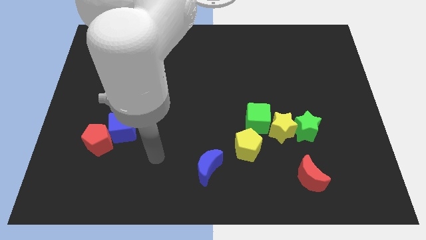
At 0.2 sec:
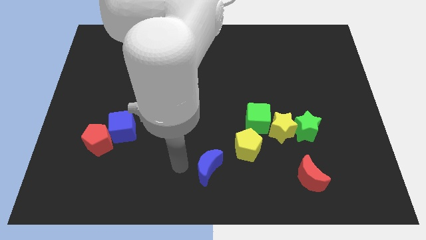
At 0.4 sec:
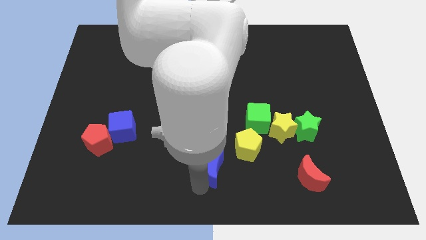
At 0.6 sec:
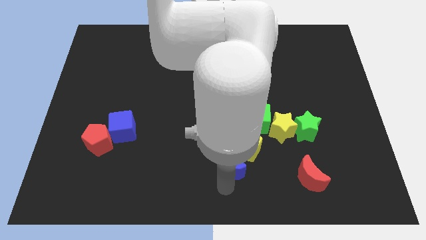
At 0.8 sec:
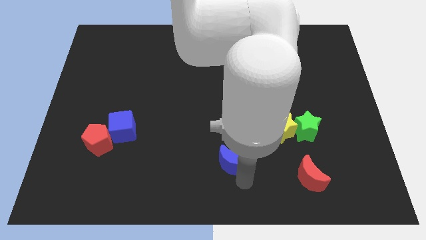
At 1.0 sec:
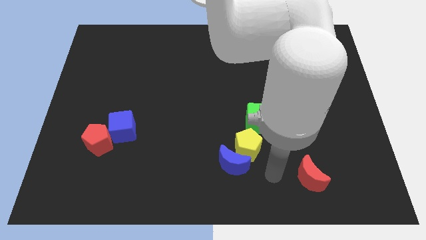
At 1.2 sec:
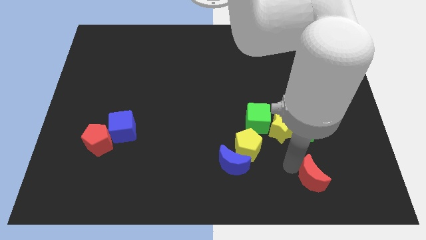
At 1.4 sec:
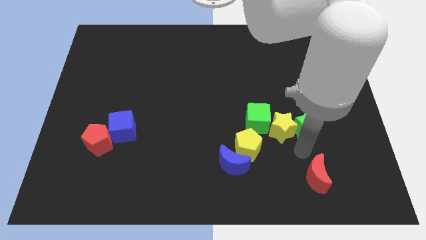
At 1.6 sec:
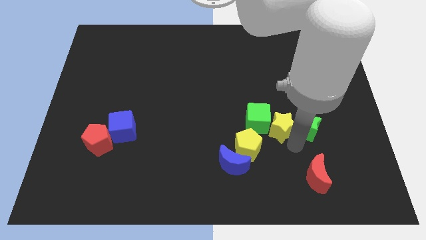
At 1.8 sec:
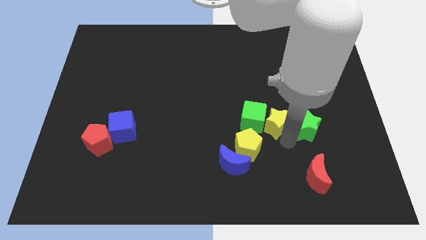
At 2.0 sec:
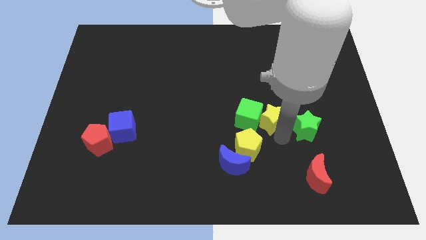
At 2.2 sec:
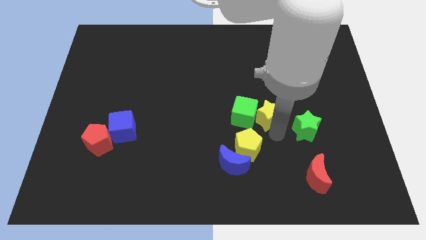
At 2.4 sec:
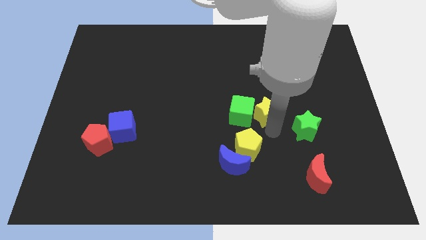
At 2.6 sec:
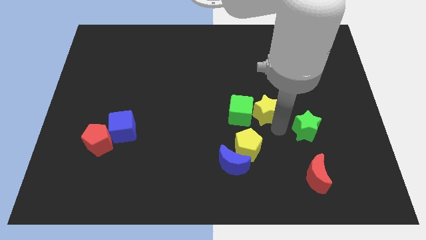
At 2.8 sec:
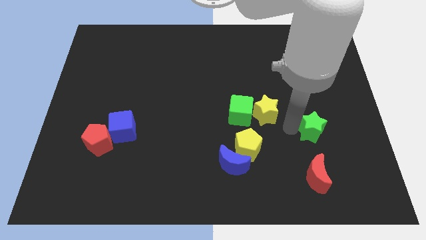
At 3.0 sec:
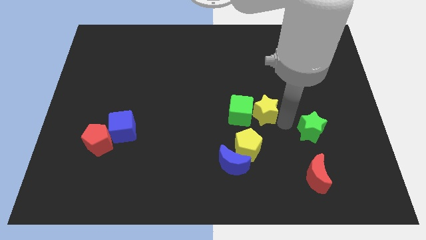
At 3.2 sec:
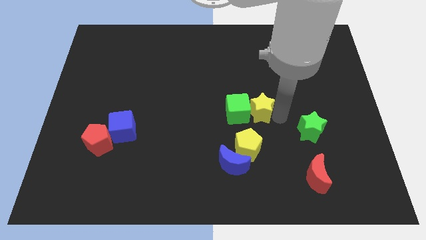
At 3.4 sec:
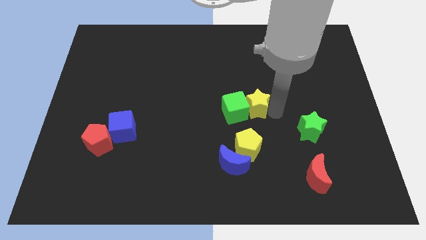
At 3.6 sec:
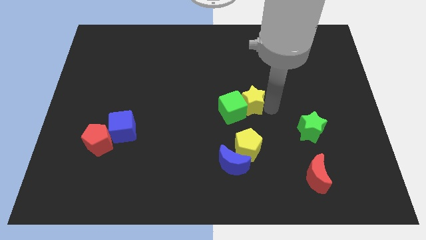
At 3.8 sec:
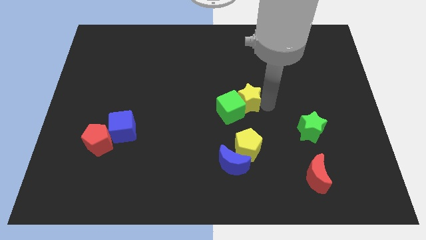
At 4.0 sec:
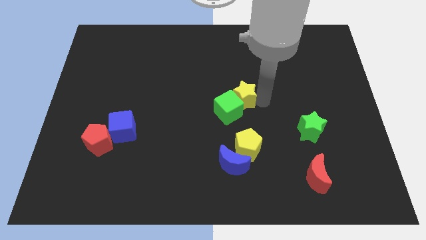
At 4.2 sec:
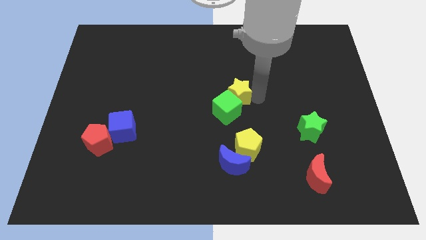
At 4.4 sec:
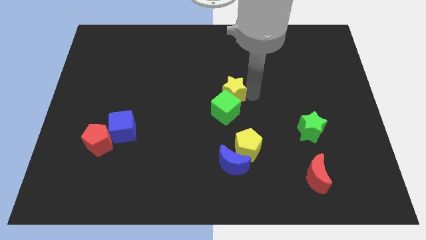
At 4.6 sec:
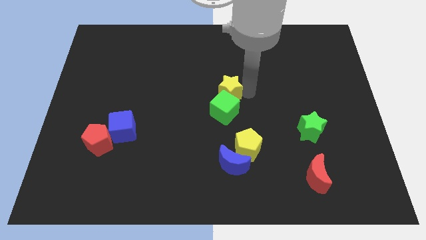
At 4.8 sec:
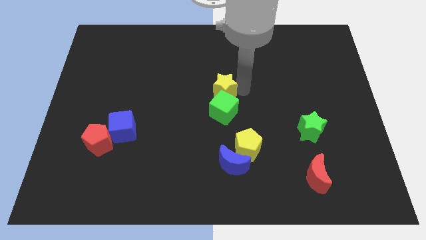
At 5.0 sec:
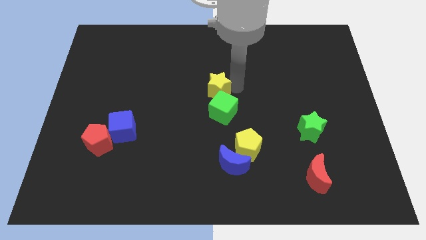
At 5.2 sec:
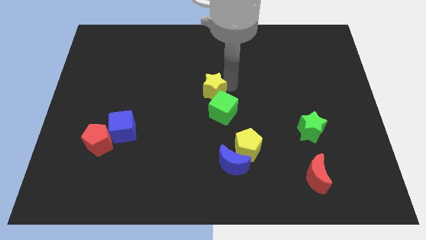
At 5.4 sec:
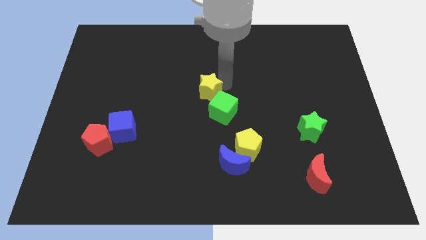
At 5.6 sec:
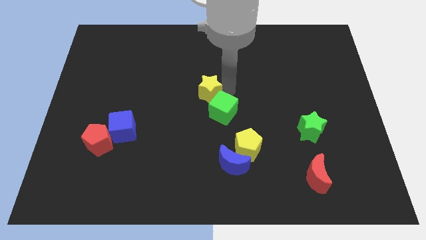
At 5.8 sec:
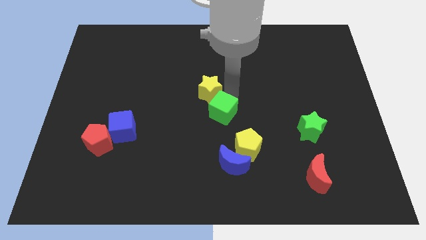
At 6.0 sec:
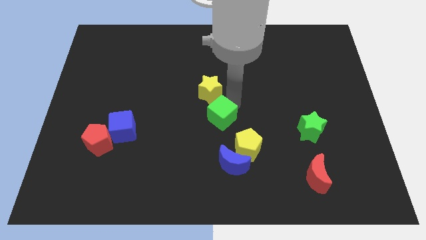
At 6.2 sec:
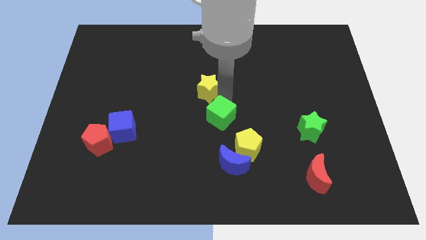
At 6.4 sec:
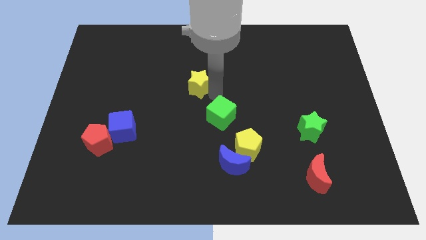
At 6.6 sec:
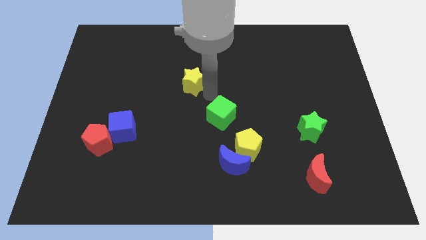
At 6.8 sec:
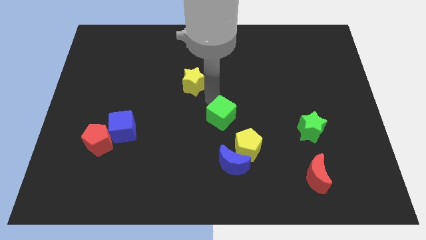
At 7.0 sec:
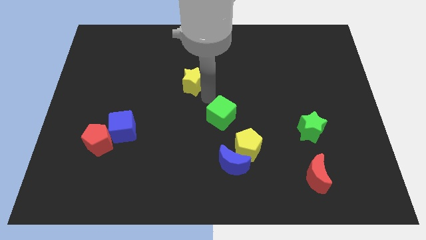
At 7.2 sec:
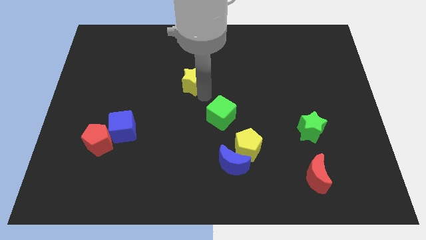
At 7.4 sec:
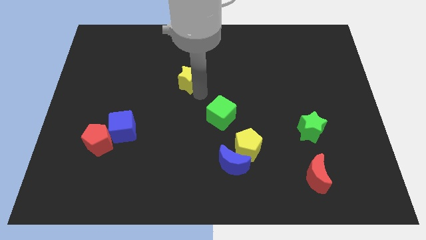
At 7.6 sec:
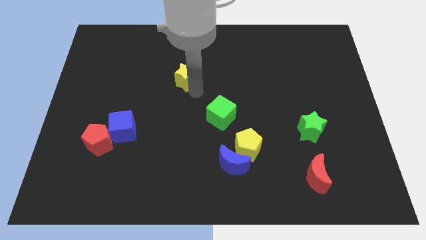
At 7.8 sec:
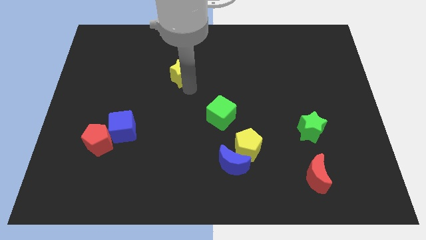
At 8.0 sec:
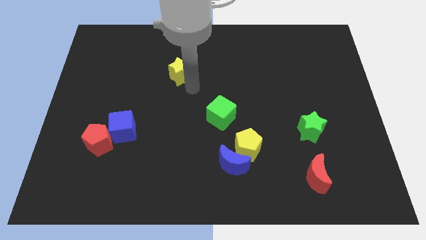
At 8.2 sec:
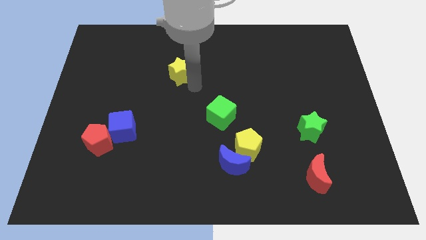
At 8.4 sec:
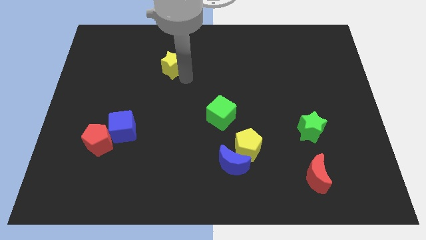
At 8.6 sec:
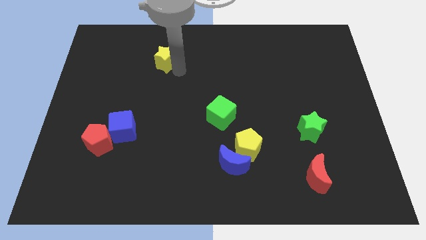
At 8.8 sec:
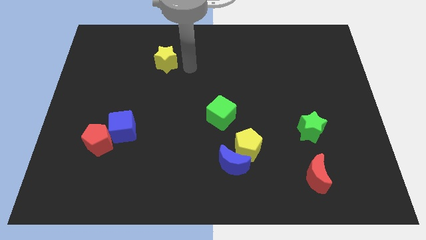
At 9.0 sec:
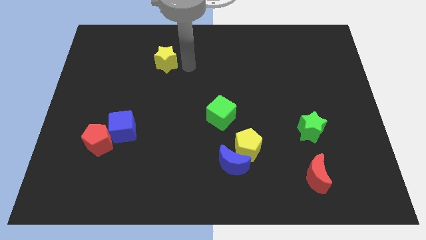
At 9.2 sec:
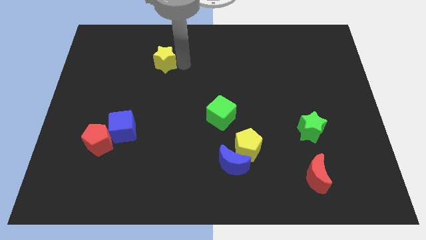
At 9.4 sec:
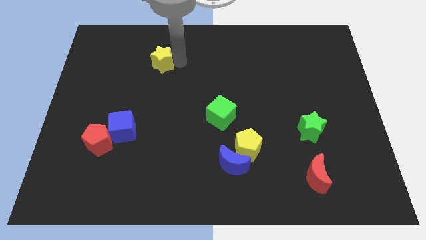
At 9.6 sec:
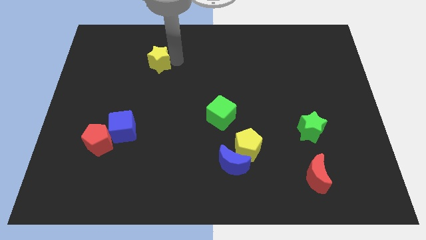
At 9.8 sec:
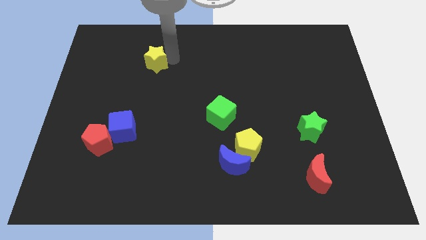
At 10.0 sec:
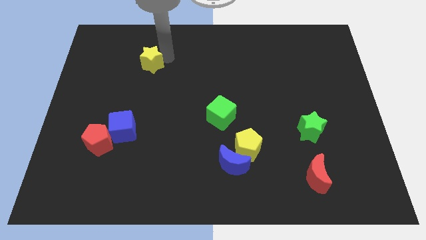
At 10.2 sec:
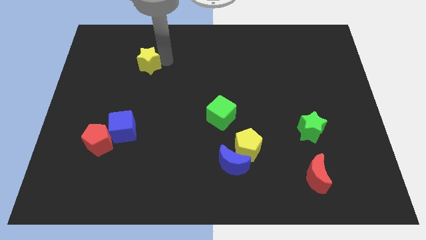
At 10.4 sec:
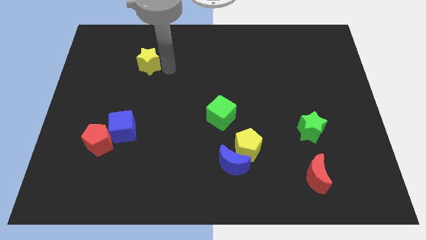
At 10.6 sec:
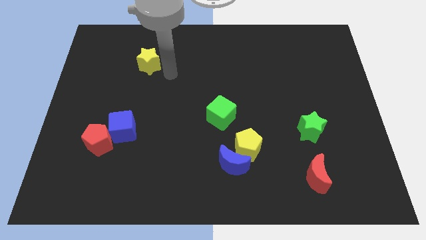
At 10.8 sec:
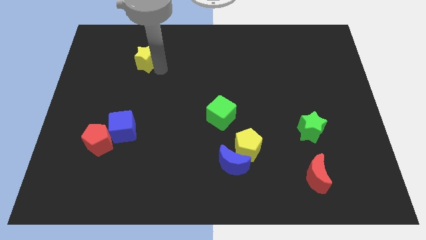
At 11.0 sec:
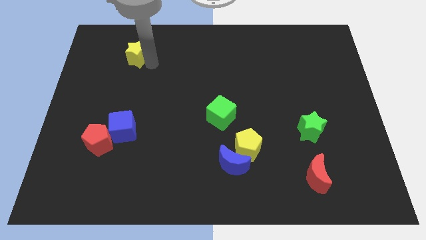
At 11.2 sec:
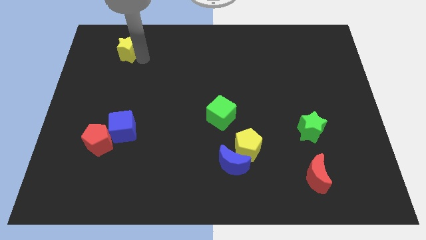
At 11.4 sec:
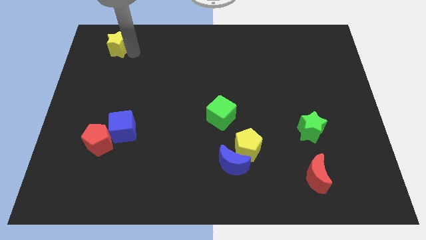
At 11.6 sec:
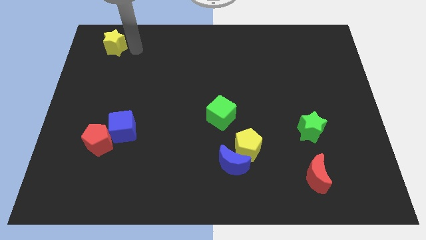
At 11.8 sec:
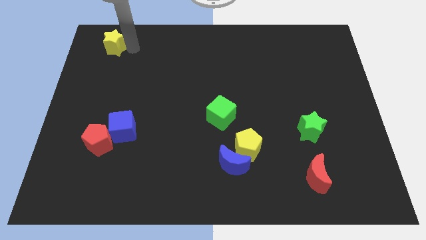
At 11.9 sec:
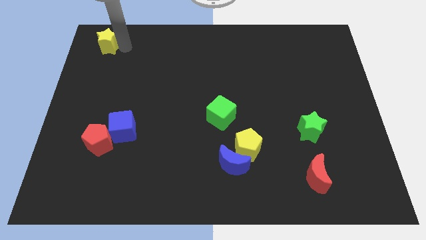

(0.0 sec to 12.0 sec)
put the yellow star to the top left corner
